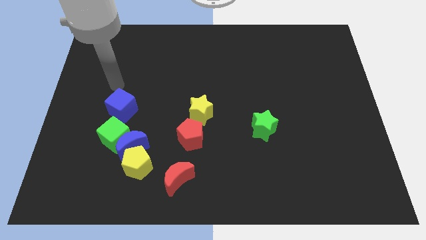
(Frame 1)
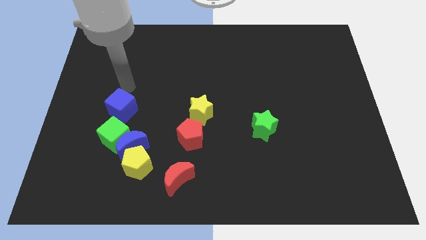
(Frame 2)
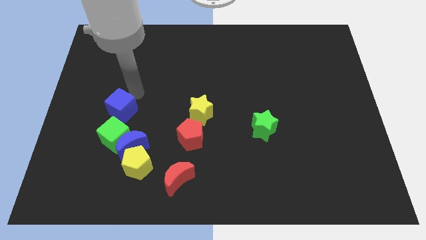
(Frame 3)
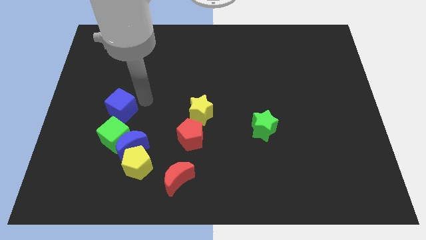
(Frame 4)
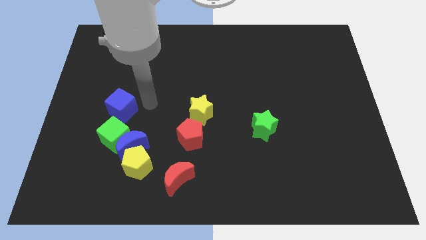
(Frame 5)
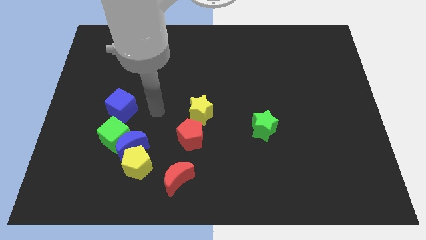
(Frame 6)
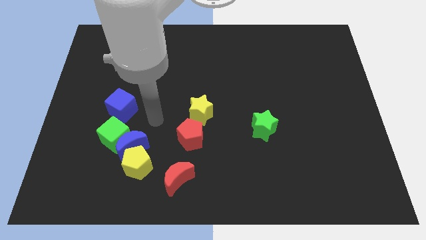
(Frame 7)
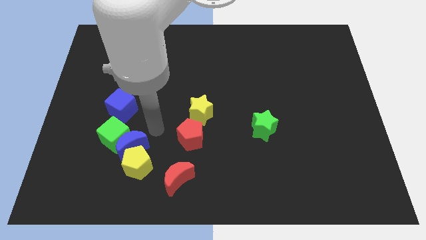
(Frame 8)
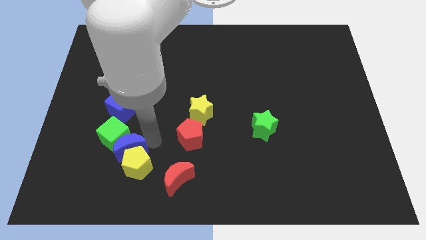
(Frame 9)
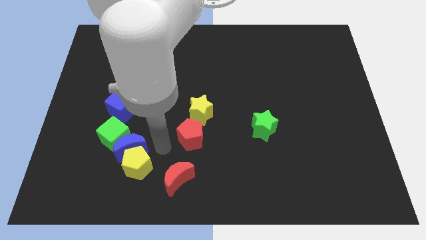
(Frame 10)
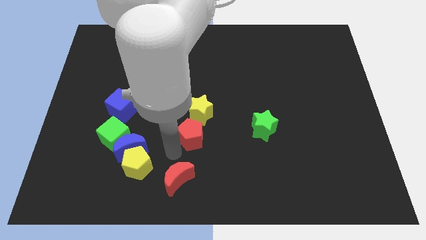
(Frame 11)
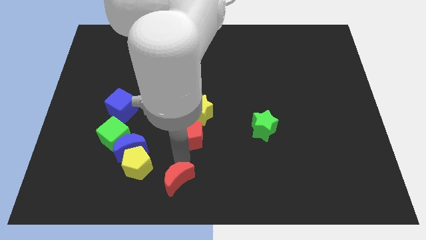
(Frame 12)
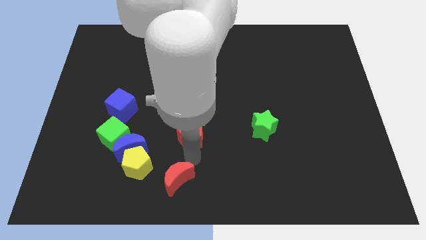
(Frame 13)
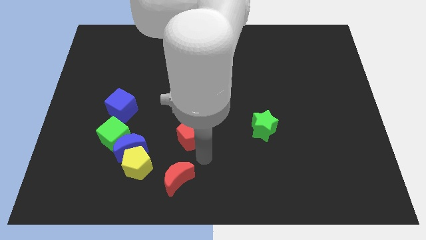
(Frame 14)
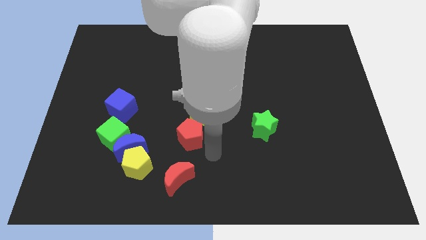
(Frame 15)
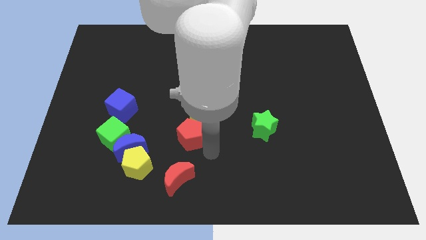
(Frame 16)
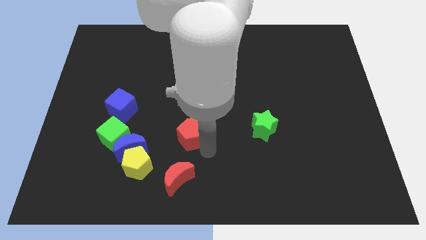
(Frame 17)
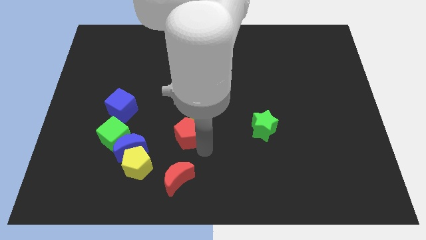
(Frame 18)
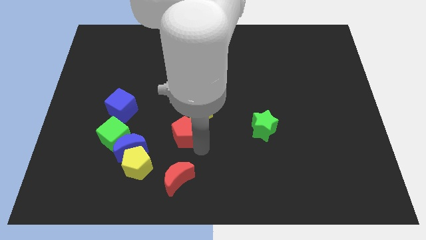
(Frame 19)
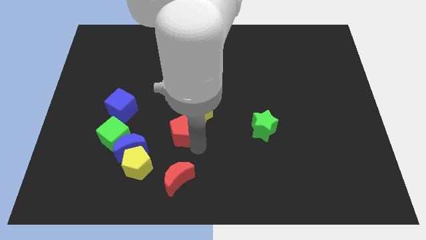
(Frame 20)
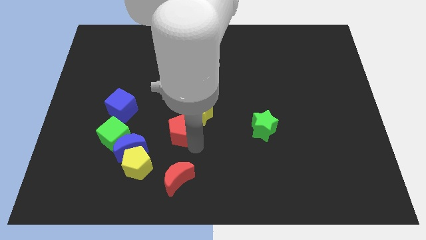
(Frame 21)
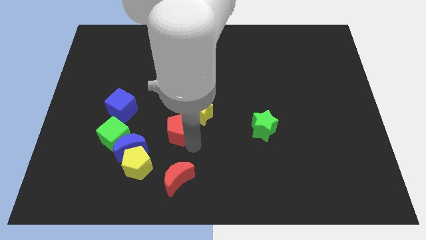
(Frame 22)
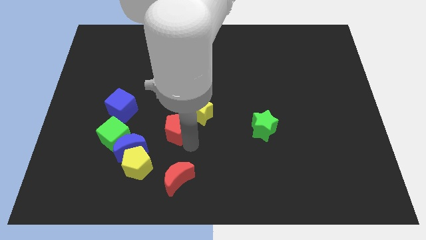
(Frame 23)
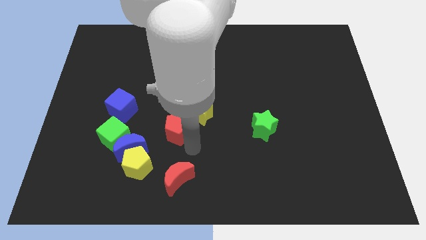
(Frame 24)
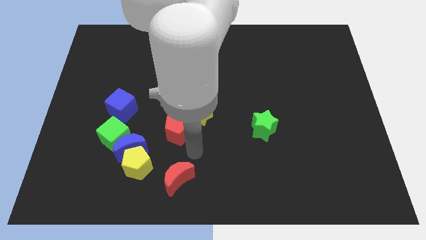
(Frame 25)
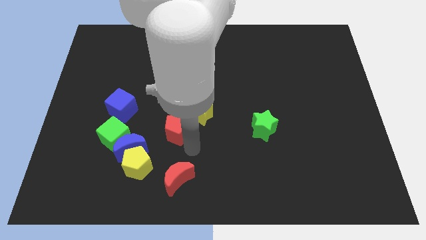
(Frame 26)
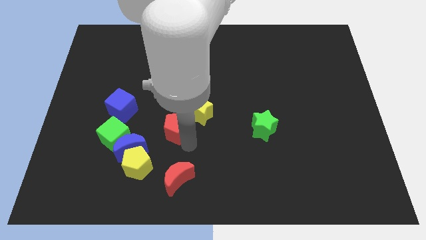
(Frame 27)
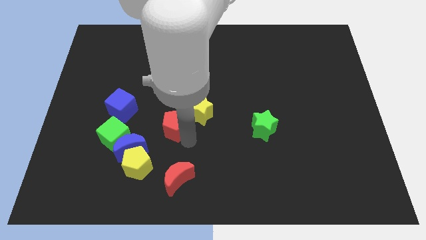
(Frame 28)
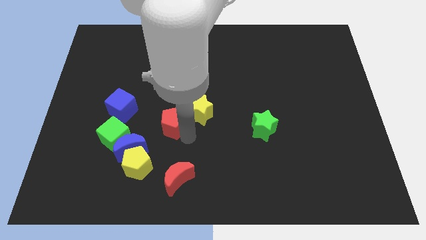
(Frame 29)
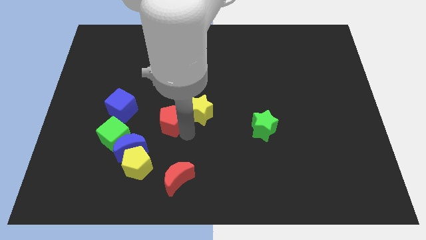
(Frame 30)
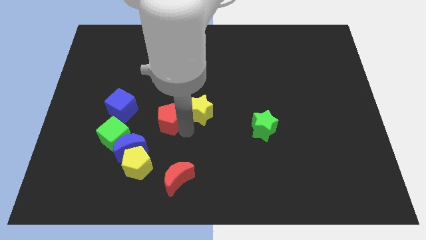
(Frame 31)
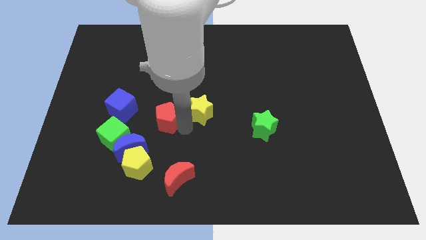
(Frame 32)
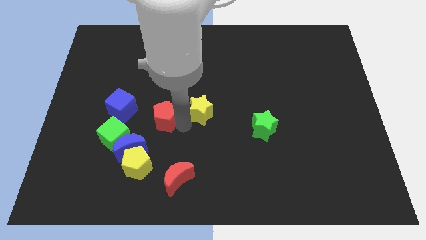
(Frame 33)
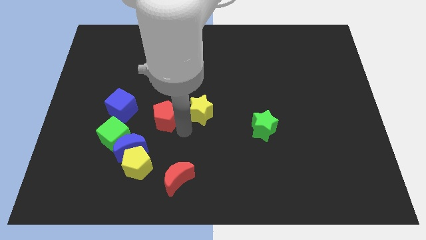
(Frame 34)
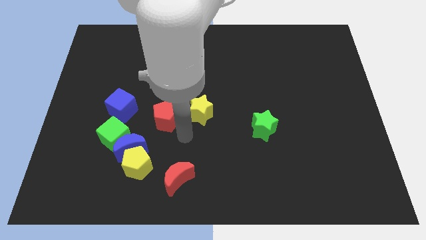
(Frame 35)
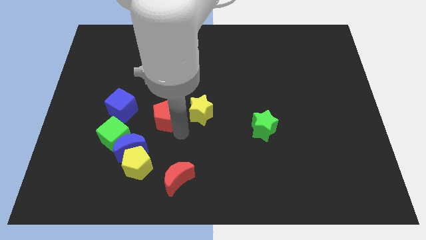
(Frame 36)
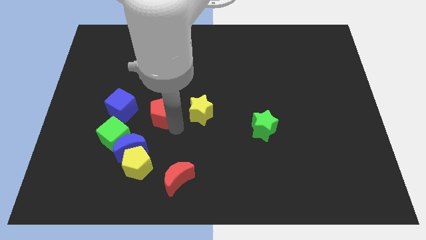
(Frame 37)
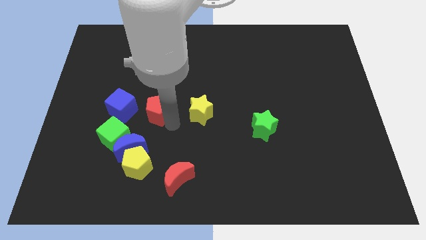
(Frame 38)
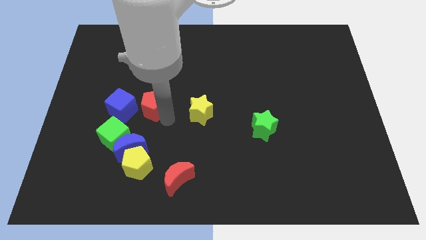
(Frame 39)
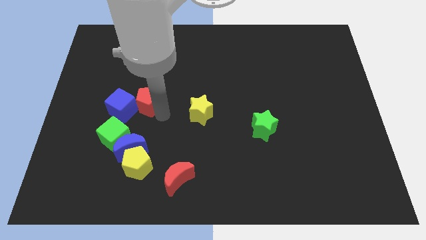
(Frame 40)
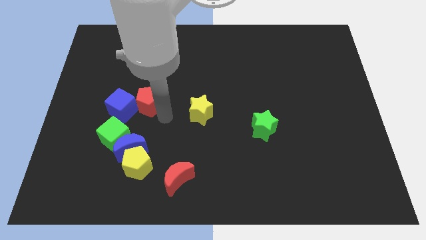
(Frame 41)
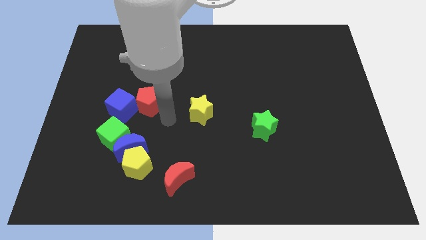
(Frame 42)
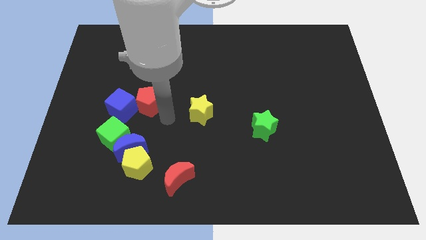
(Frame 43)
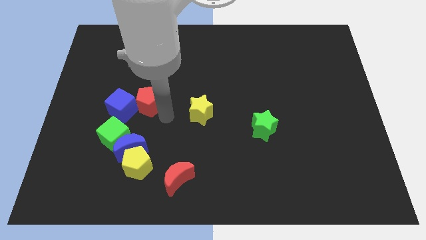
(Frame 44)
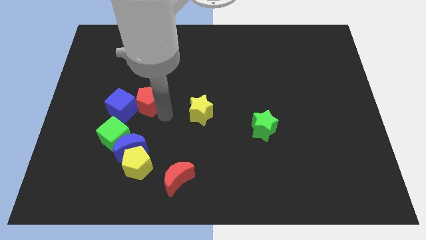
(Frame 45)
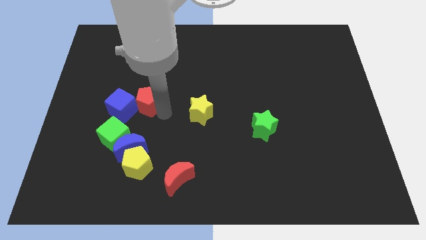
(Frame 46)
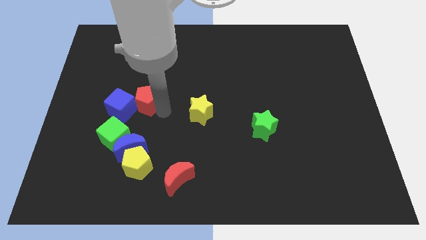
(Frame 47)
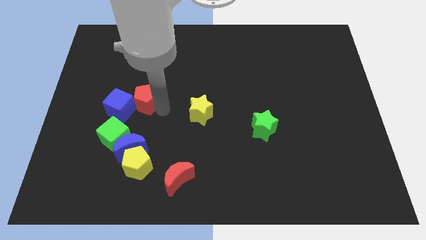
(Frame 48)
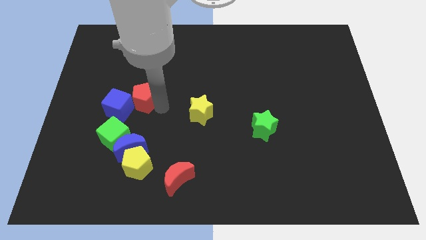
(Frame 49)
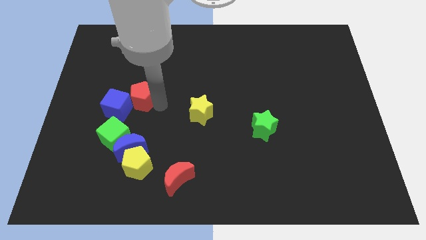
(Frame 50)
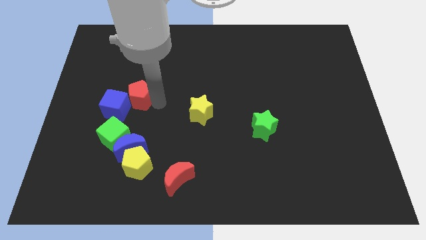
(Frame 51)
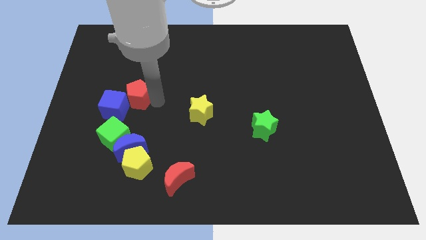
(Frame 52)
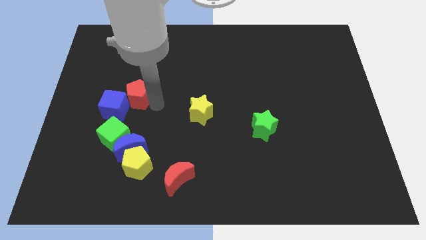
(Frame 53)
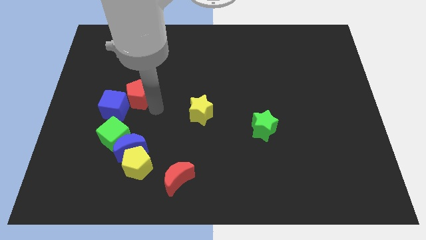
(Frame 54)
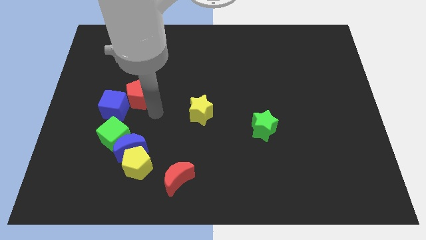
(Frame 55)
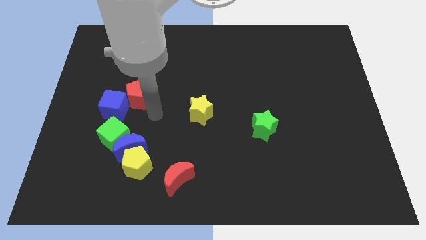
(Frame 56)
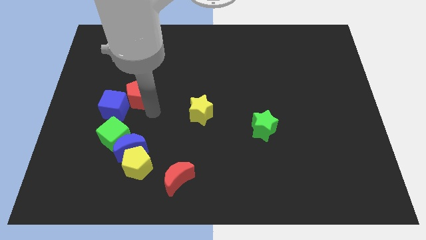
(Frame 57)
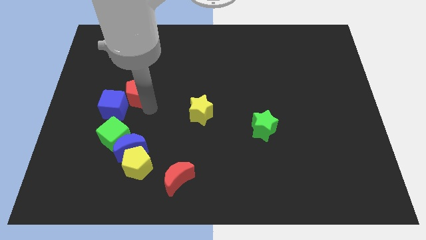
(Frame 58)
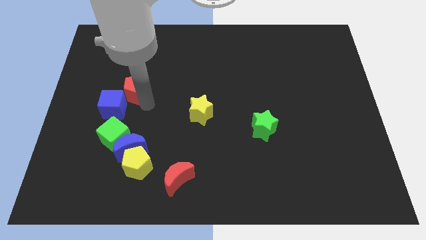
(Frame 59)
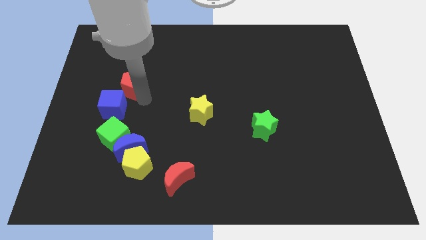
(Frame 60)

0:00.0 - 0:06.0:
slide the red pentagon upwards and left

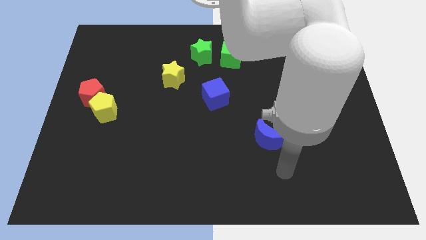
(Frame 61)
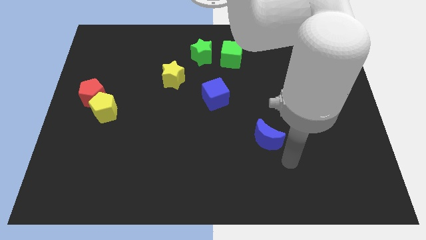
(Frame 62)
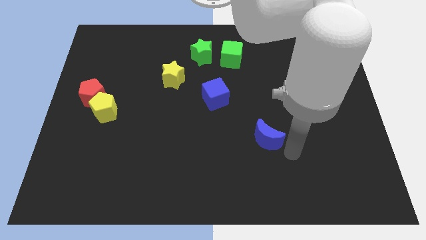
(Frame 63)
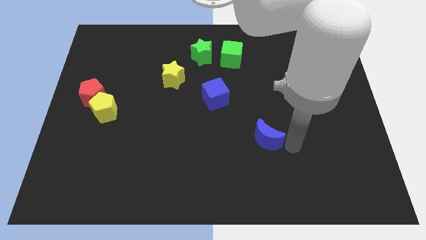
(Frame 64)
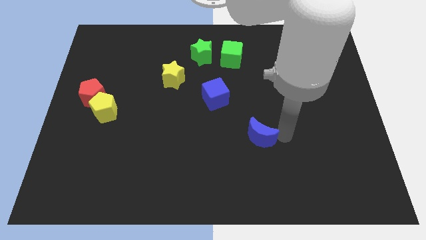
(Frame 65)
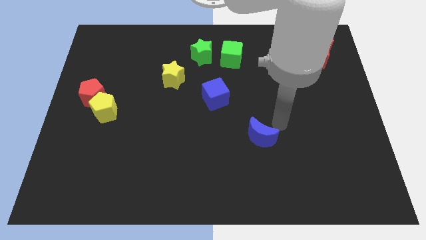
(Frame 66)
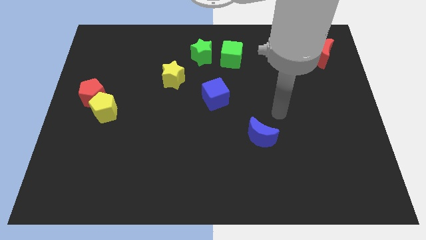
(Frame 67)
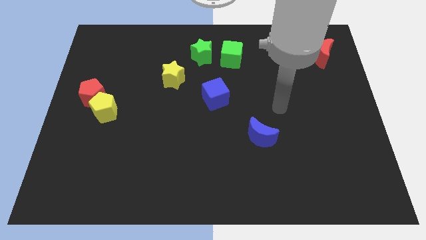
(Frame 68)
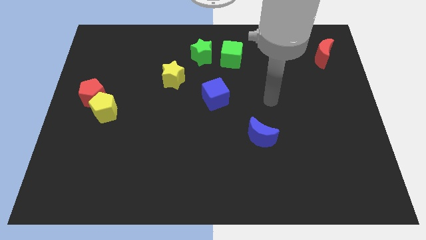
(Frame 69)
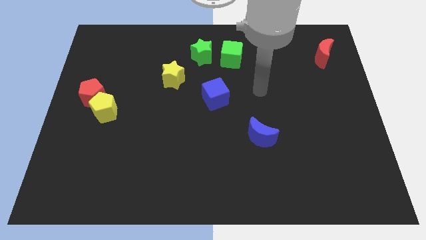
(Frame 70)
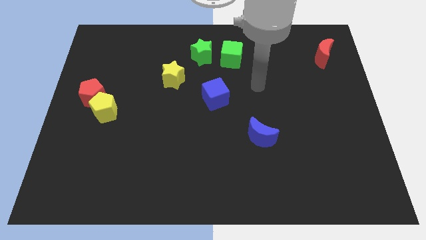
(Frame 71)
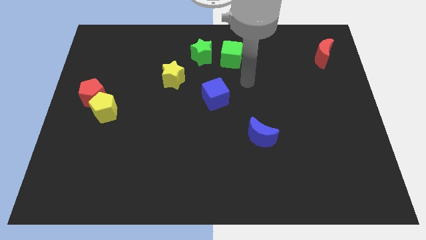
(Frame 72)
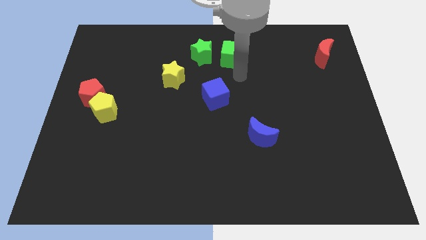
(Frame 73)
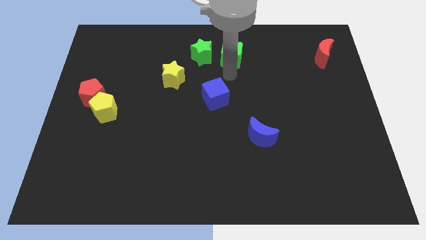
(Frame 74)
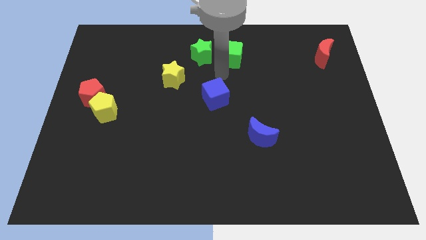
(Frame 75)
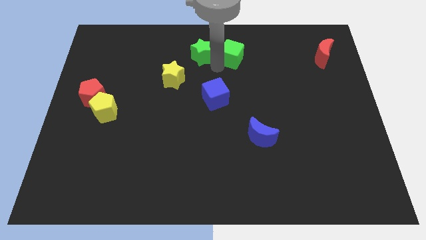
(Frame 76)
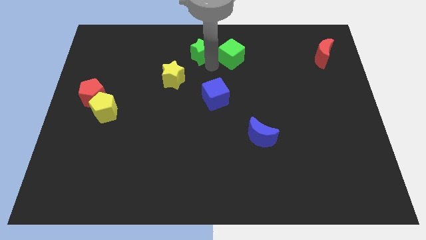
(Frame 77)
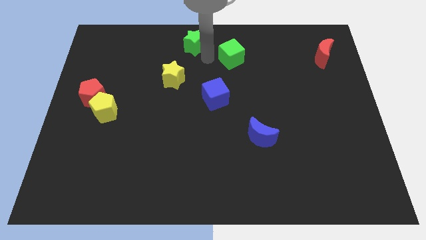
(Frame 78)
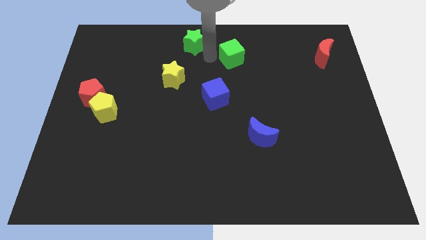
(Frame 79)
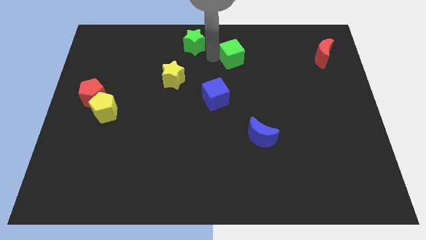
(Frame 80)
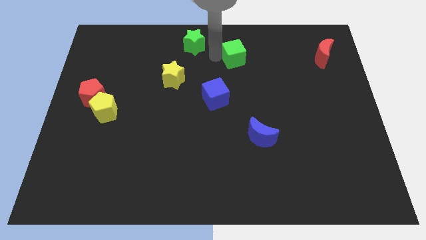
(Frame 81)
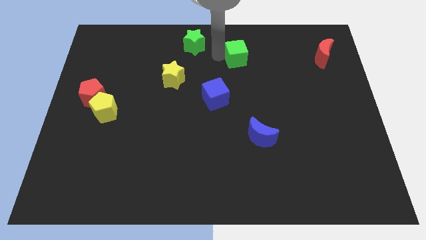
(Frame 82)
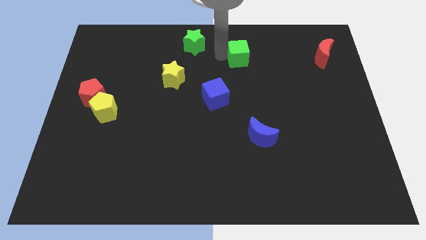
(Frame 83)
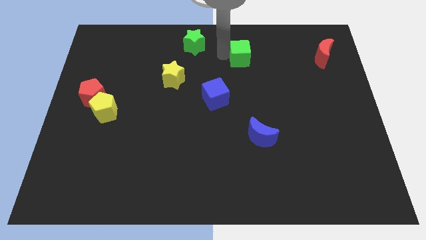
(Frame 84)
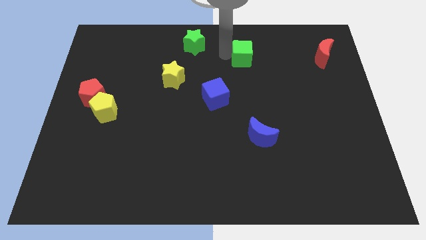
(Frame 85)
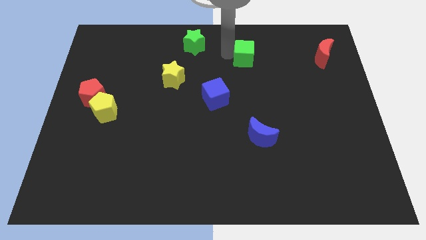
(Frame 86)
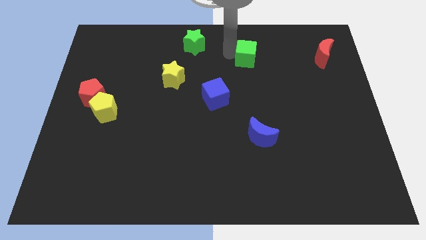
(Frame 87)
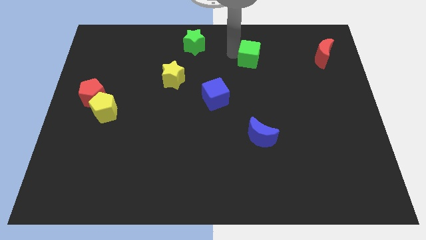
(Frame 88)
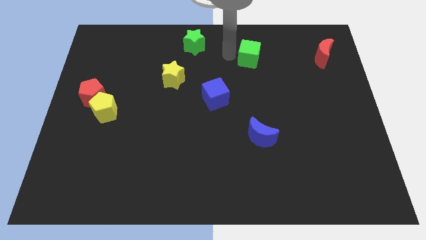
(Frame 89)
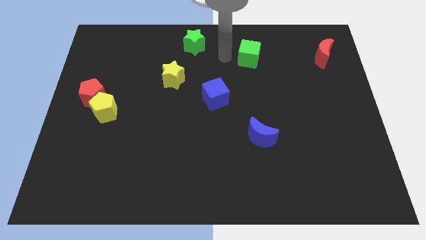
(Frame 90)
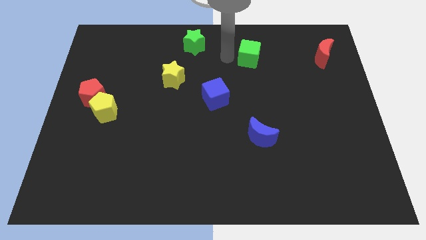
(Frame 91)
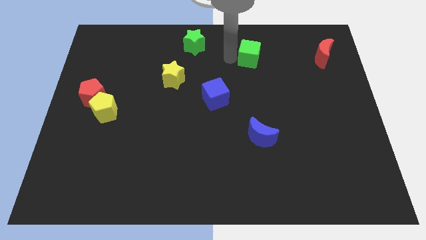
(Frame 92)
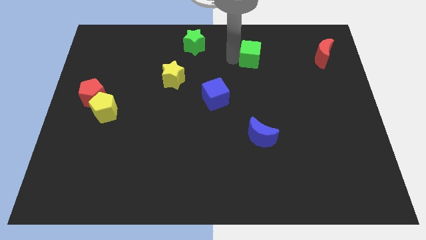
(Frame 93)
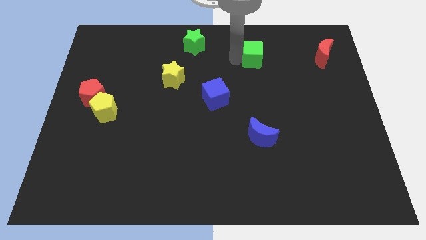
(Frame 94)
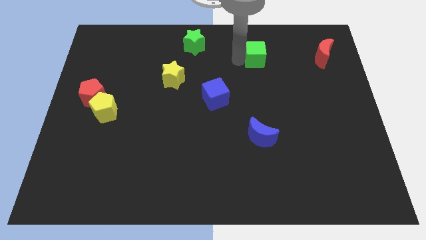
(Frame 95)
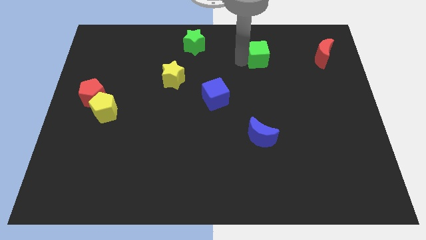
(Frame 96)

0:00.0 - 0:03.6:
move the green cube right a little
